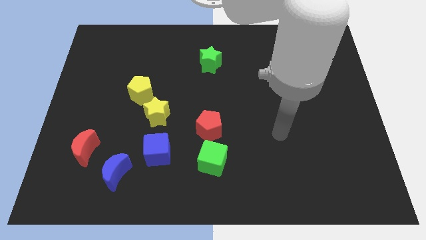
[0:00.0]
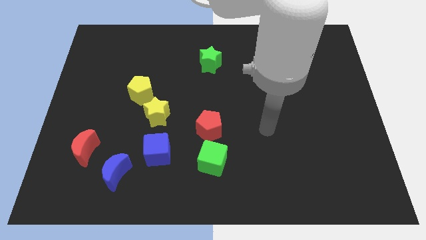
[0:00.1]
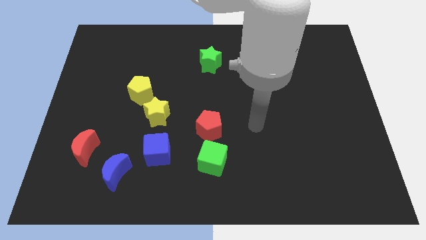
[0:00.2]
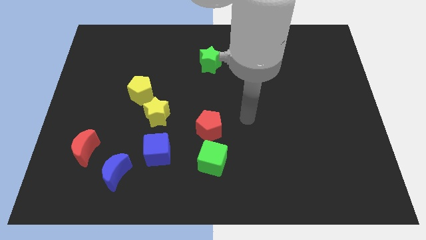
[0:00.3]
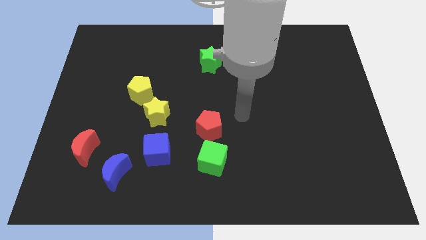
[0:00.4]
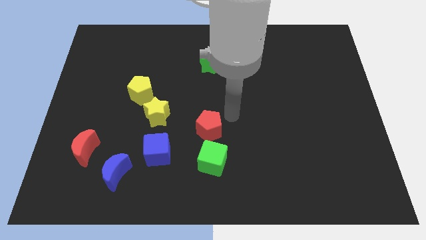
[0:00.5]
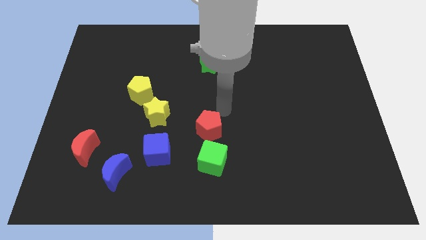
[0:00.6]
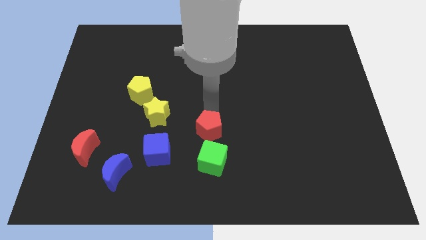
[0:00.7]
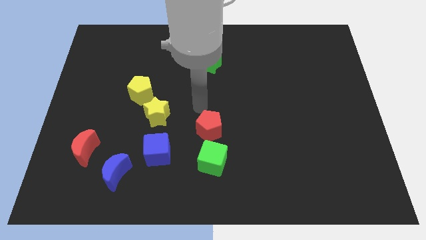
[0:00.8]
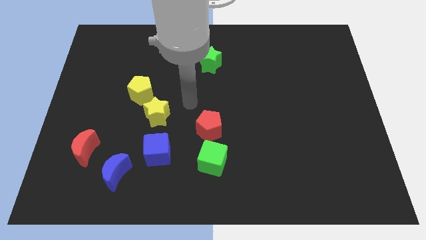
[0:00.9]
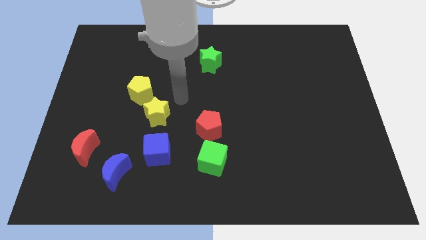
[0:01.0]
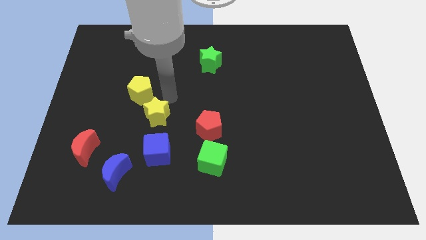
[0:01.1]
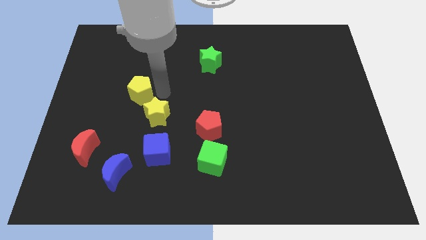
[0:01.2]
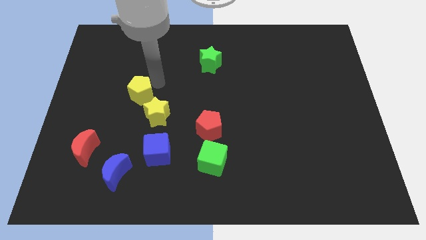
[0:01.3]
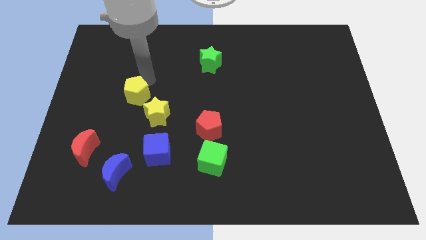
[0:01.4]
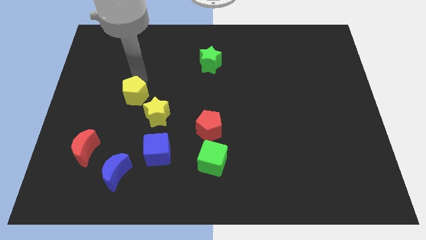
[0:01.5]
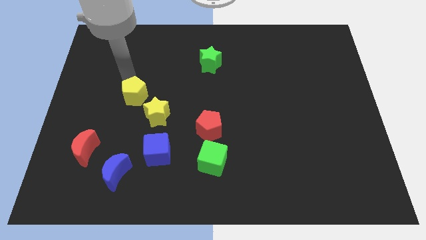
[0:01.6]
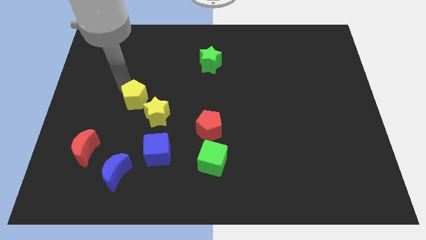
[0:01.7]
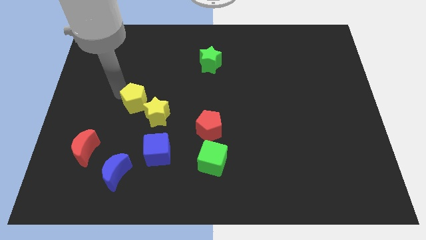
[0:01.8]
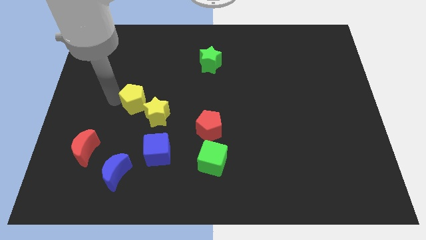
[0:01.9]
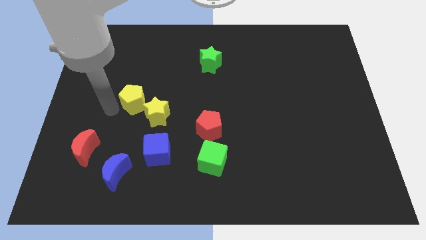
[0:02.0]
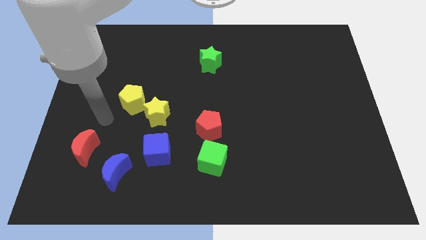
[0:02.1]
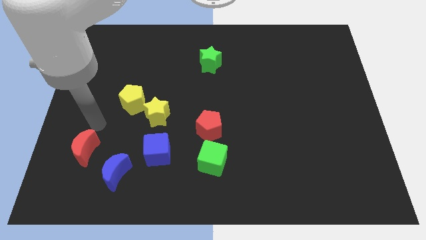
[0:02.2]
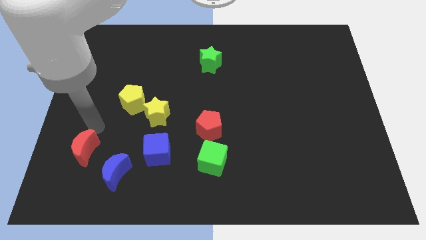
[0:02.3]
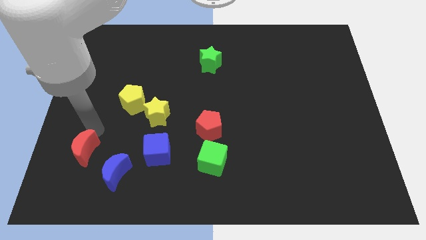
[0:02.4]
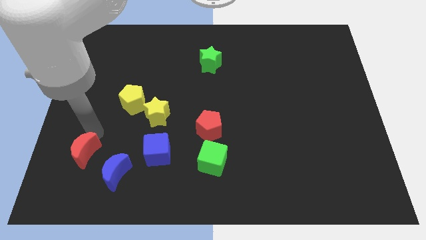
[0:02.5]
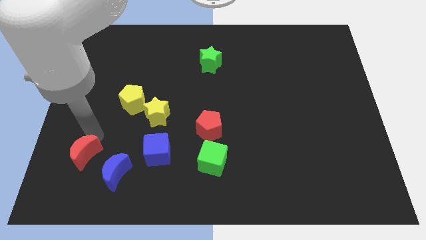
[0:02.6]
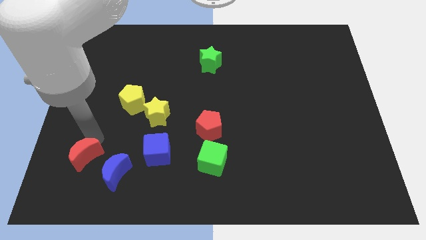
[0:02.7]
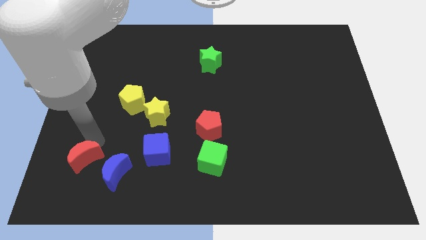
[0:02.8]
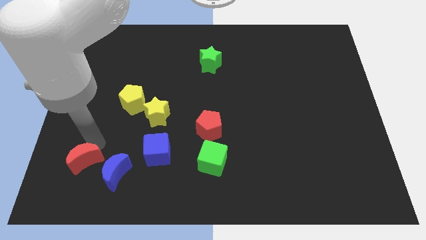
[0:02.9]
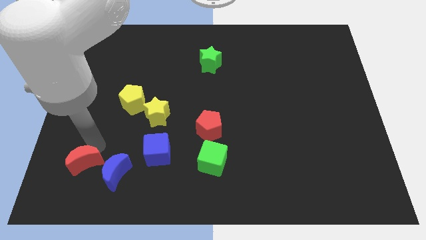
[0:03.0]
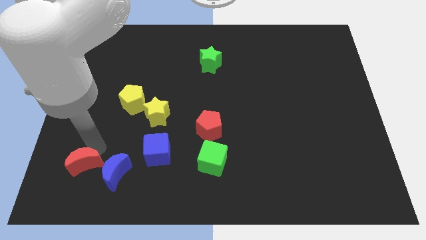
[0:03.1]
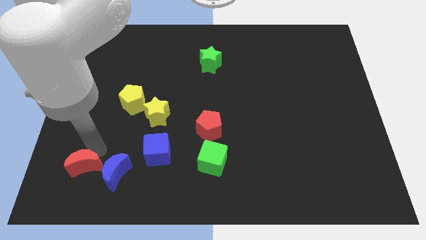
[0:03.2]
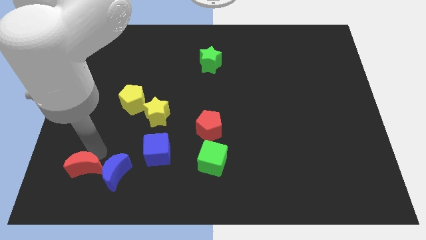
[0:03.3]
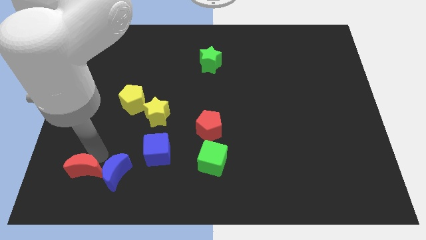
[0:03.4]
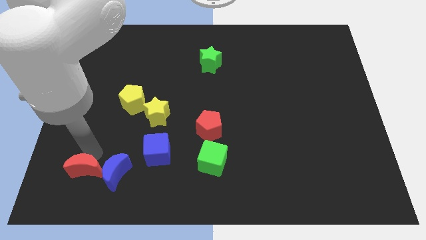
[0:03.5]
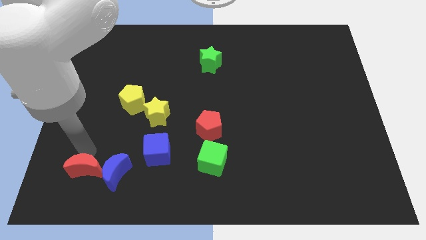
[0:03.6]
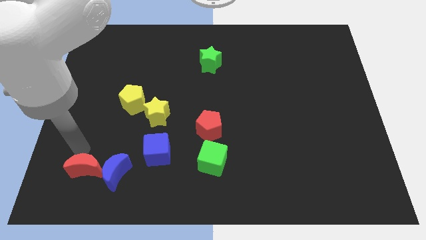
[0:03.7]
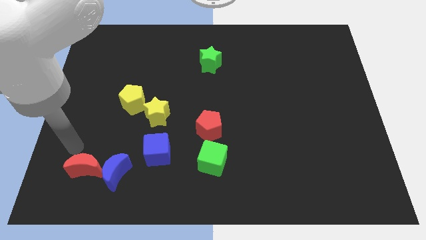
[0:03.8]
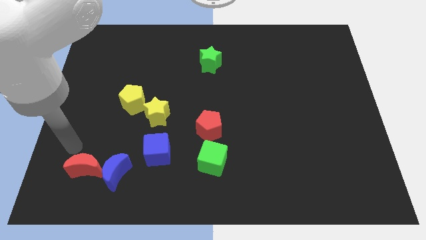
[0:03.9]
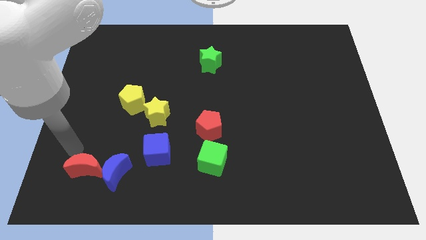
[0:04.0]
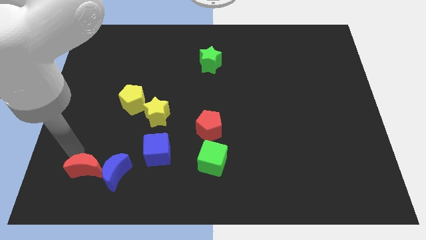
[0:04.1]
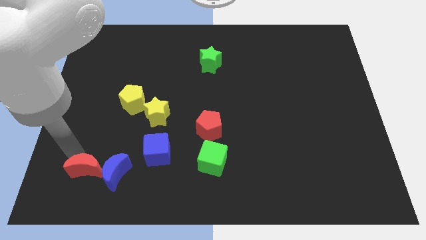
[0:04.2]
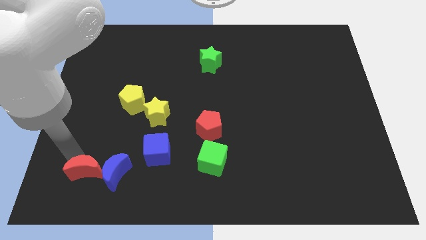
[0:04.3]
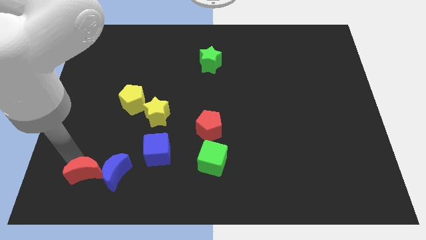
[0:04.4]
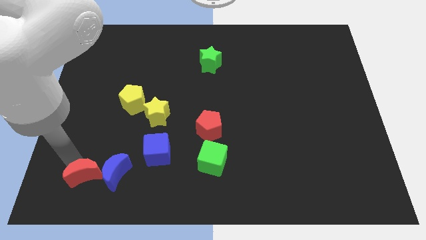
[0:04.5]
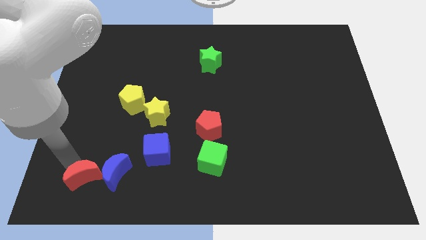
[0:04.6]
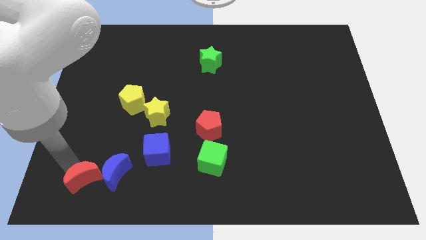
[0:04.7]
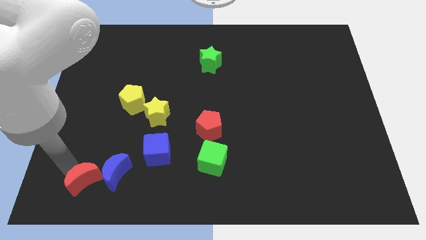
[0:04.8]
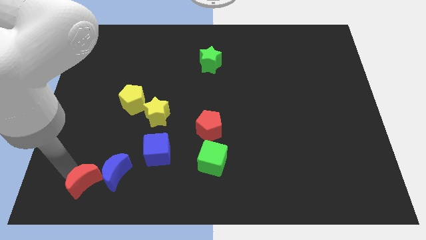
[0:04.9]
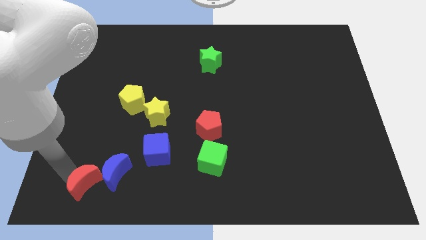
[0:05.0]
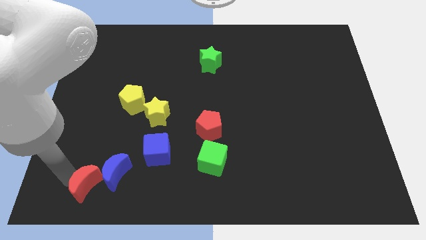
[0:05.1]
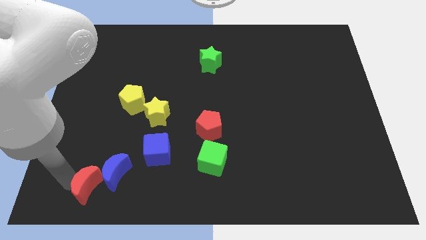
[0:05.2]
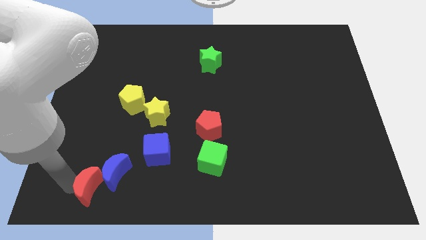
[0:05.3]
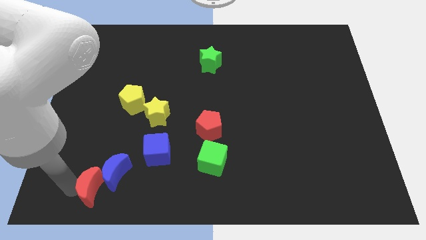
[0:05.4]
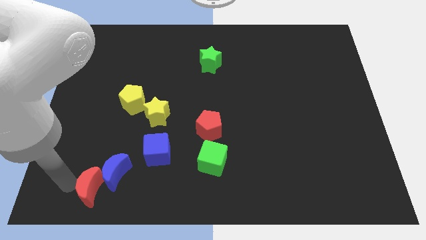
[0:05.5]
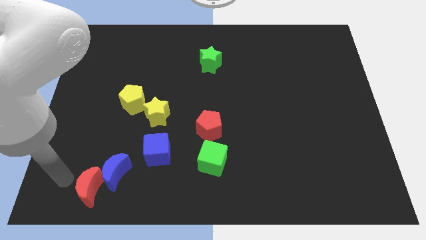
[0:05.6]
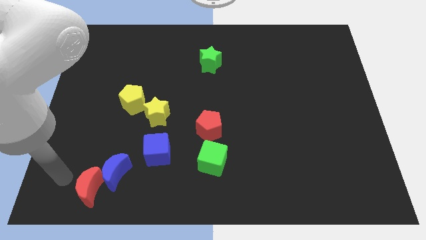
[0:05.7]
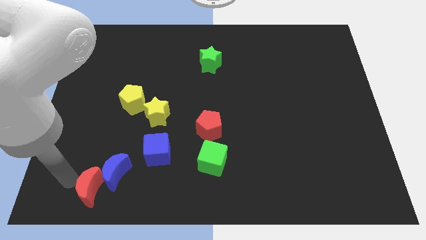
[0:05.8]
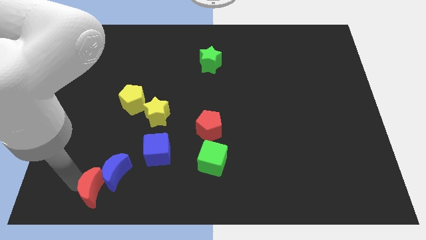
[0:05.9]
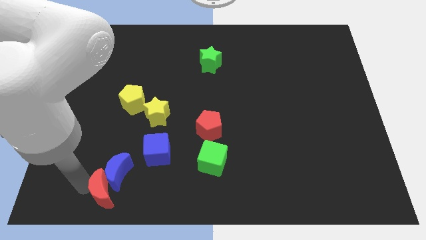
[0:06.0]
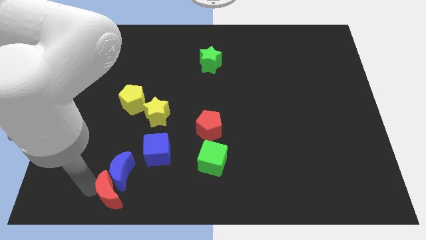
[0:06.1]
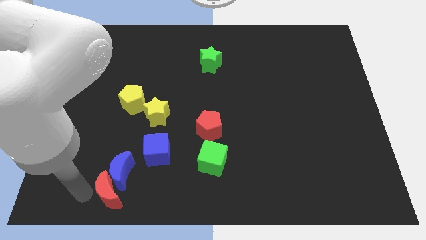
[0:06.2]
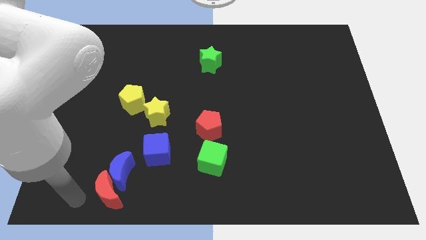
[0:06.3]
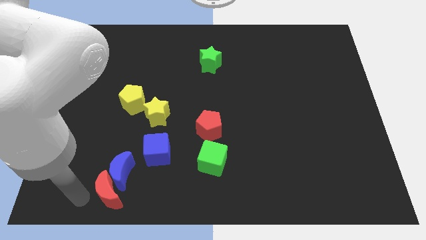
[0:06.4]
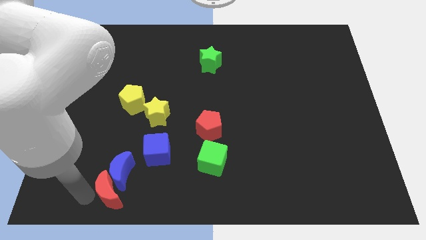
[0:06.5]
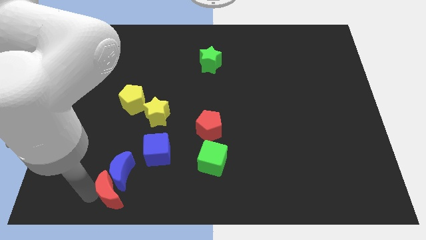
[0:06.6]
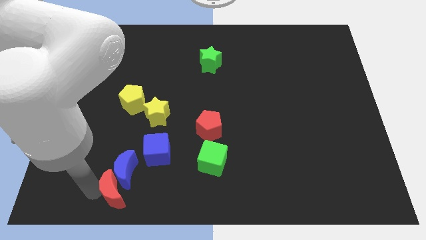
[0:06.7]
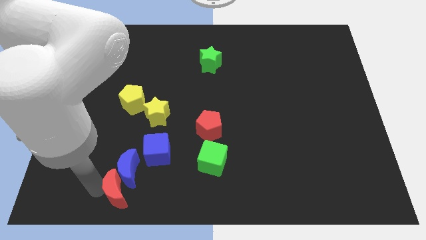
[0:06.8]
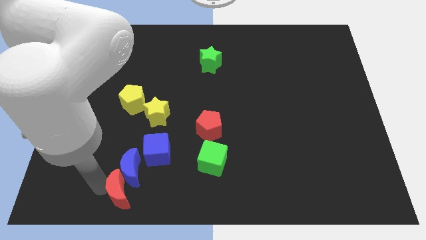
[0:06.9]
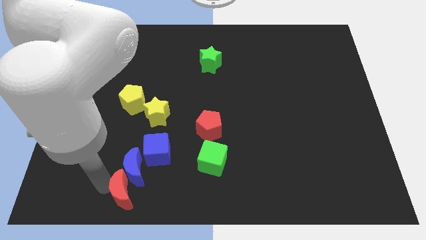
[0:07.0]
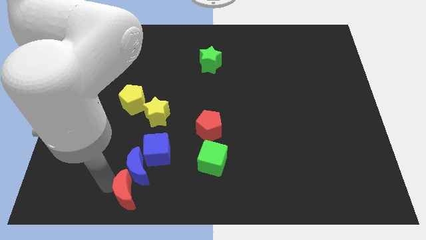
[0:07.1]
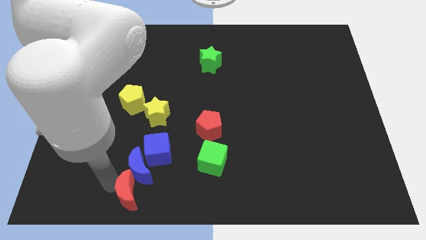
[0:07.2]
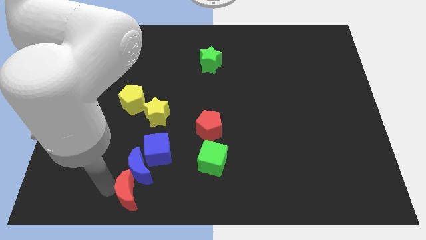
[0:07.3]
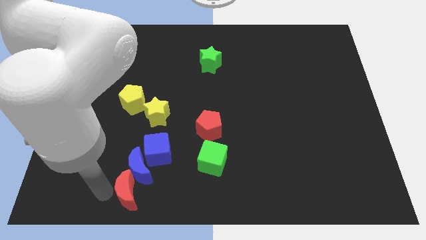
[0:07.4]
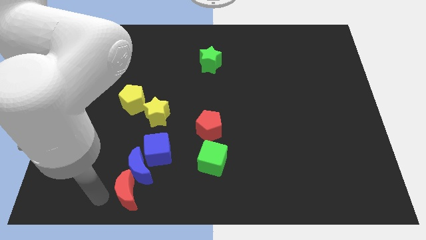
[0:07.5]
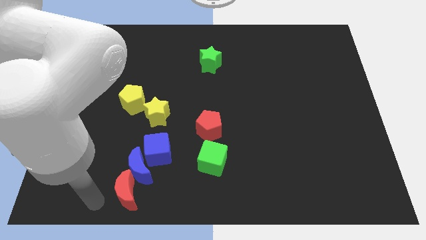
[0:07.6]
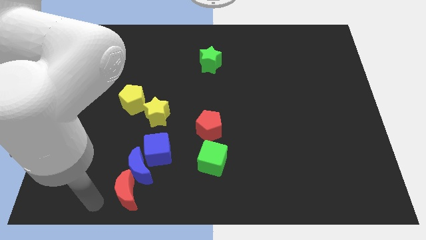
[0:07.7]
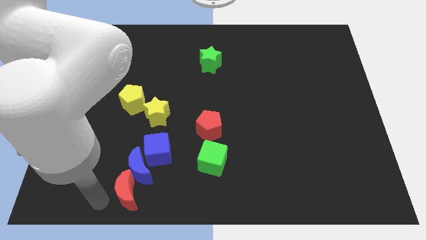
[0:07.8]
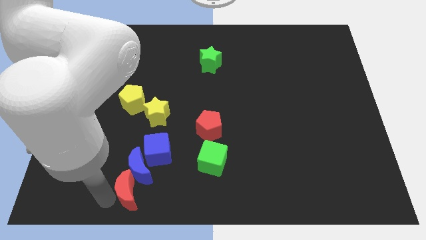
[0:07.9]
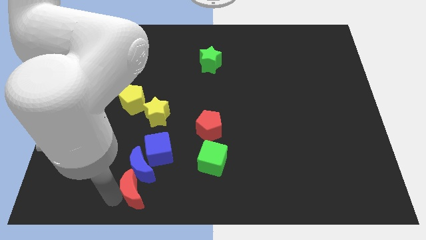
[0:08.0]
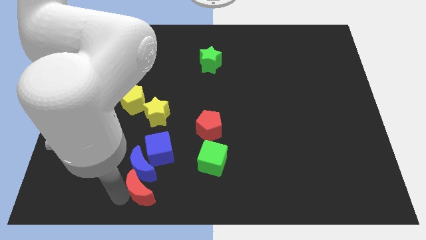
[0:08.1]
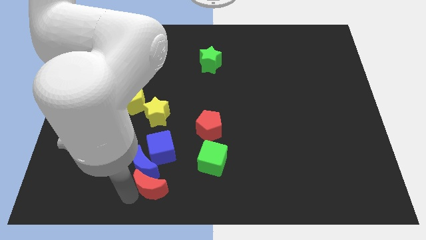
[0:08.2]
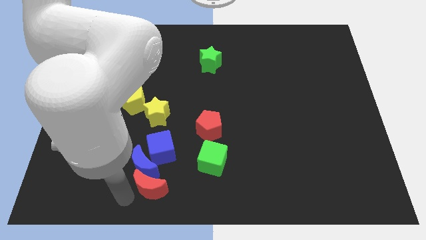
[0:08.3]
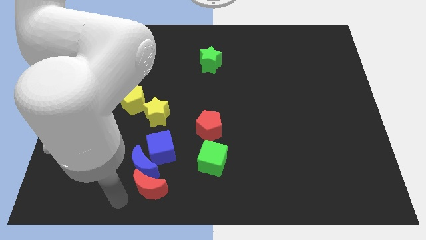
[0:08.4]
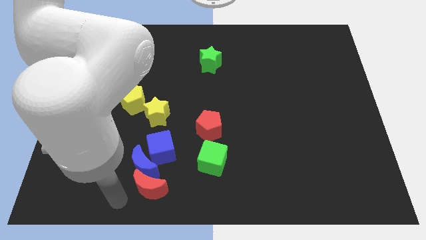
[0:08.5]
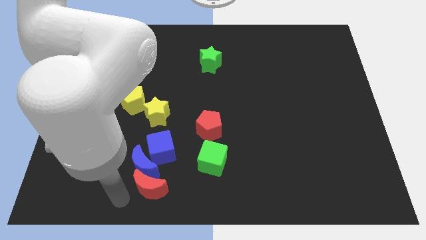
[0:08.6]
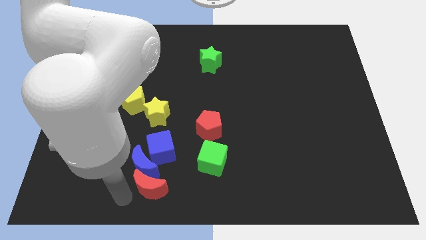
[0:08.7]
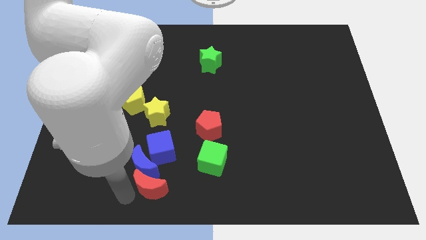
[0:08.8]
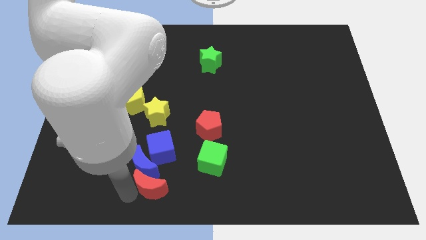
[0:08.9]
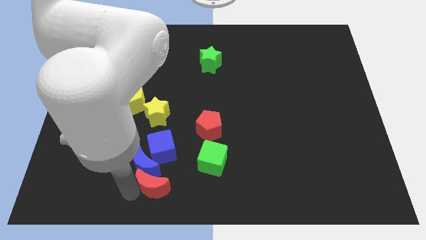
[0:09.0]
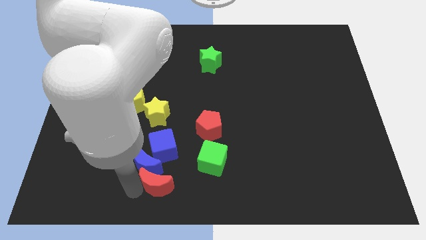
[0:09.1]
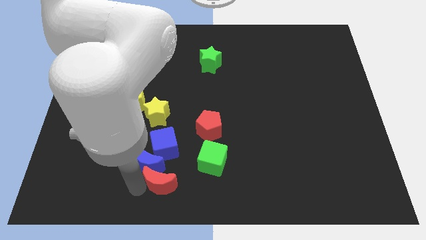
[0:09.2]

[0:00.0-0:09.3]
move the red moon to the bottom left side of the green cube
